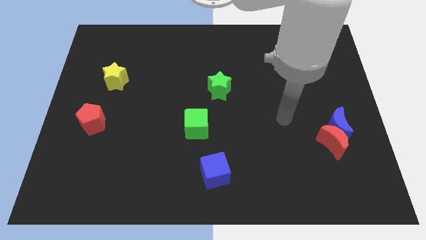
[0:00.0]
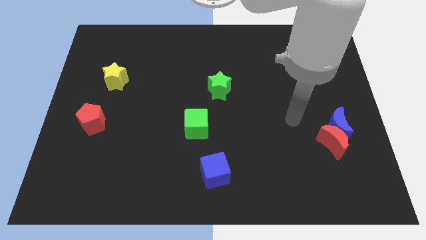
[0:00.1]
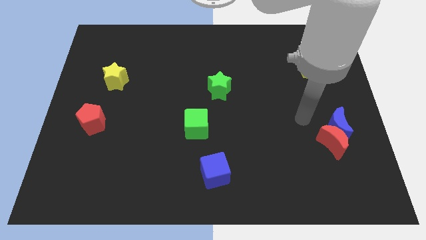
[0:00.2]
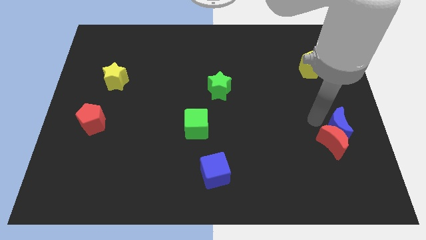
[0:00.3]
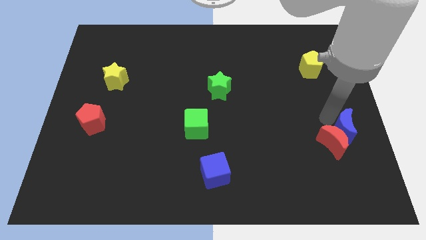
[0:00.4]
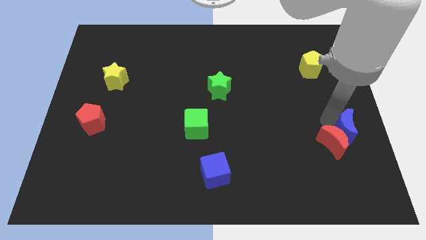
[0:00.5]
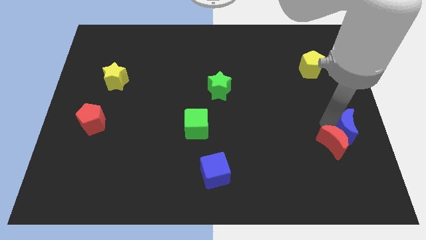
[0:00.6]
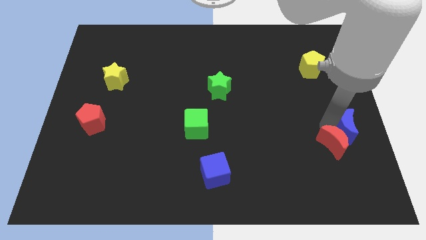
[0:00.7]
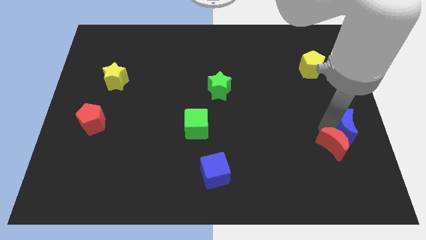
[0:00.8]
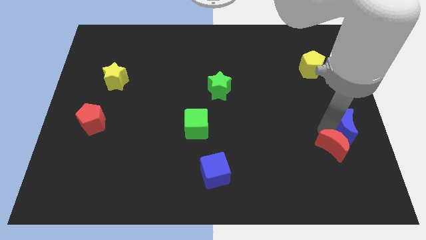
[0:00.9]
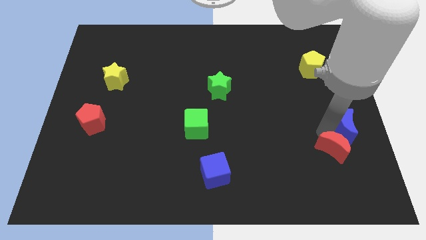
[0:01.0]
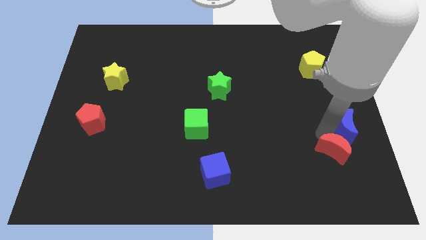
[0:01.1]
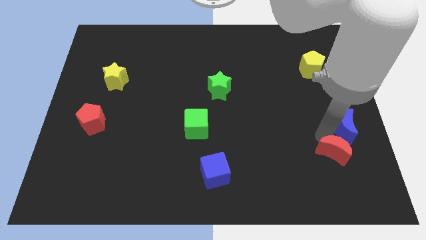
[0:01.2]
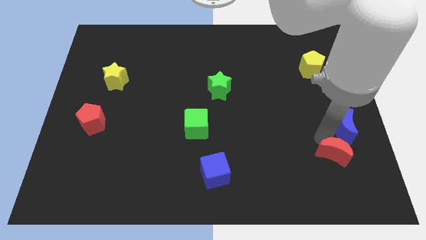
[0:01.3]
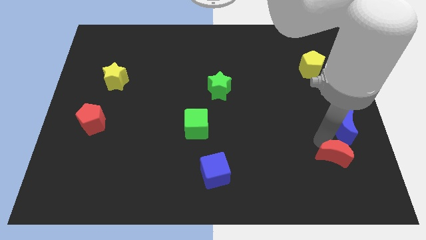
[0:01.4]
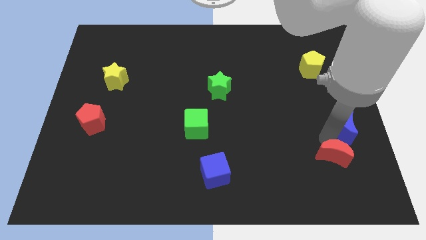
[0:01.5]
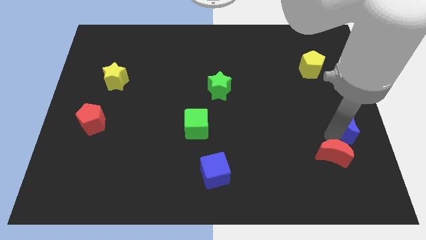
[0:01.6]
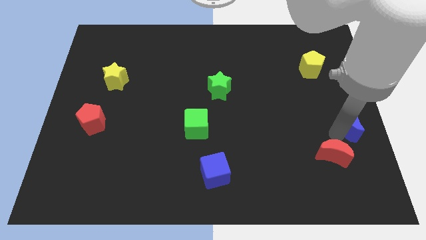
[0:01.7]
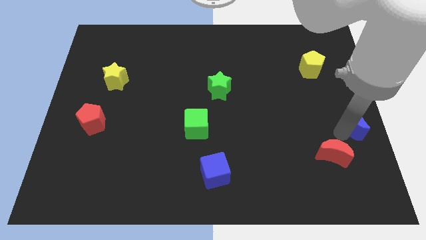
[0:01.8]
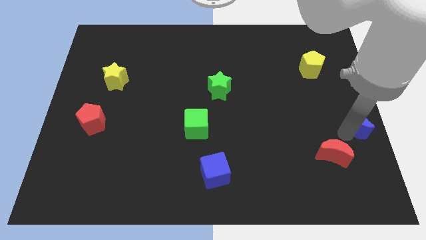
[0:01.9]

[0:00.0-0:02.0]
pull the red moon apart from the blue moon

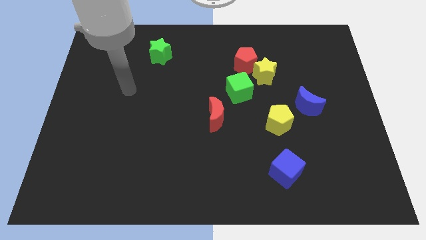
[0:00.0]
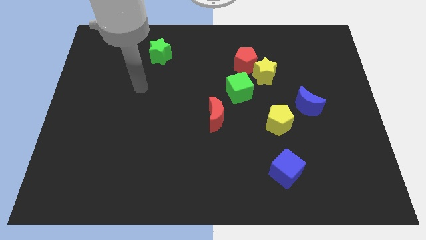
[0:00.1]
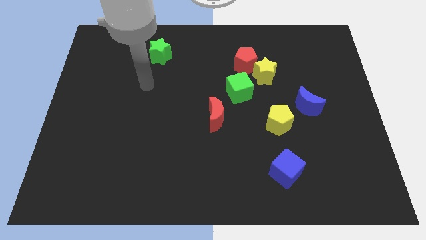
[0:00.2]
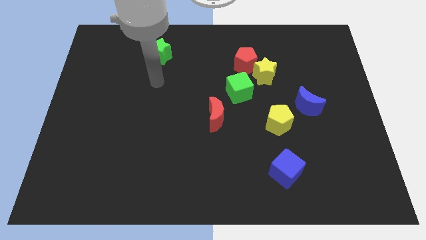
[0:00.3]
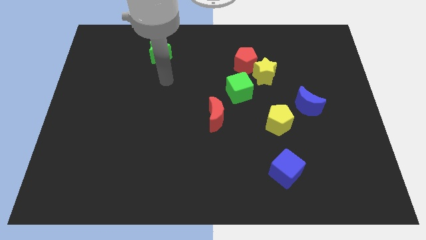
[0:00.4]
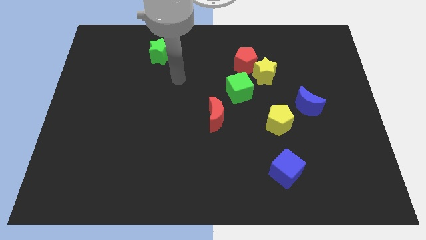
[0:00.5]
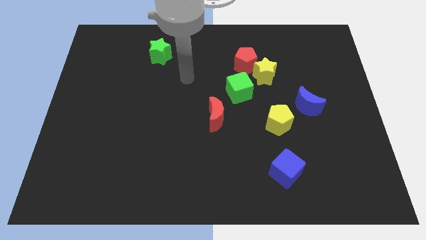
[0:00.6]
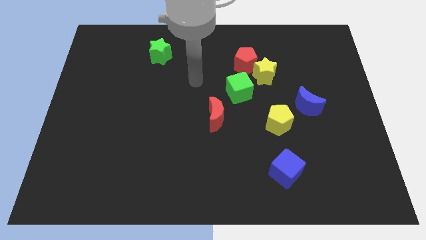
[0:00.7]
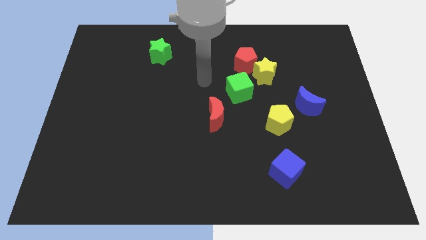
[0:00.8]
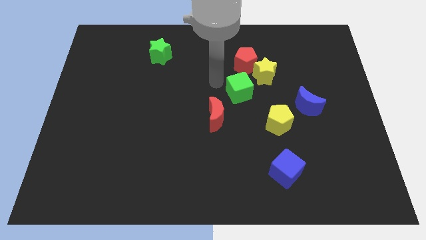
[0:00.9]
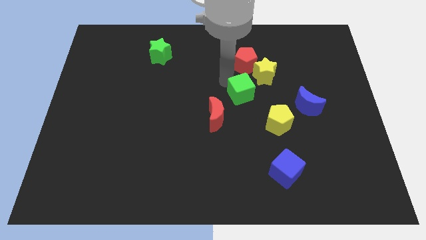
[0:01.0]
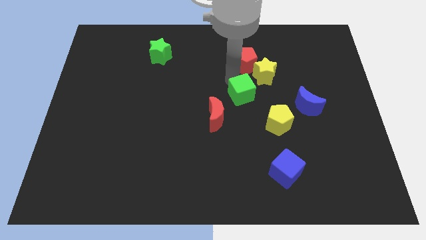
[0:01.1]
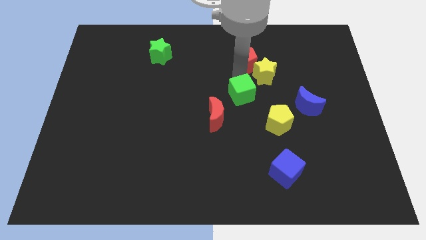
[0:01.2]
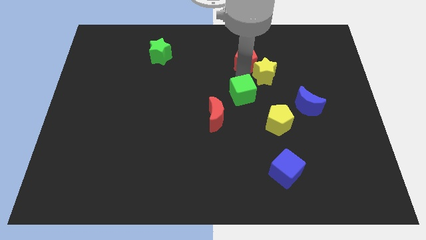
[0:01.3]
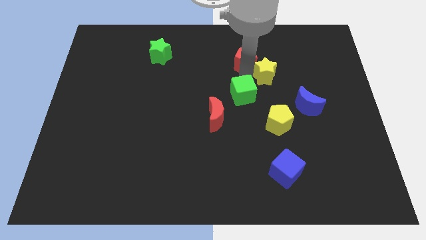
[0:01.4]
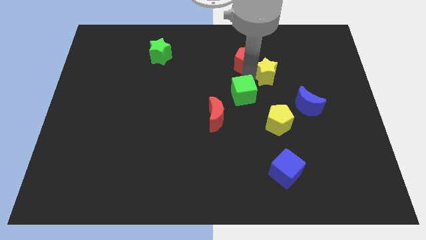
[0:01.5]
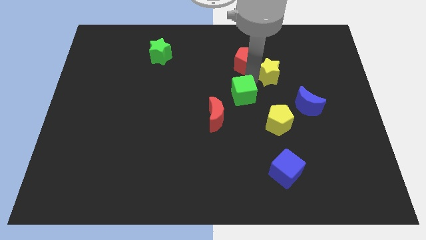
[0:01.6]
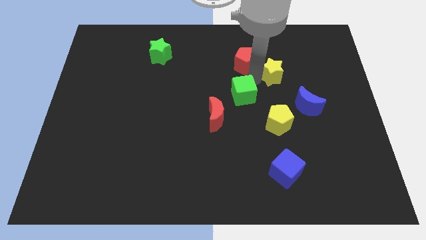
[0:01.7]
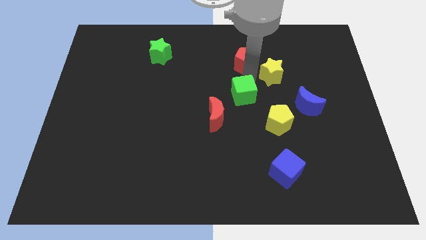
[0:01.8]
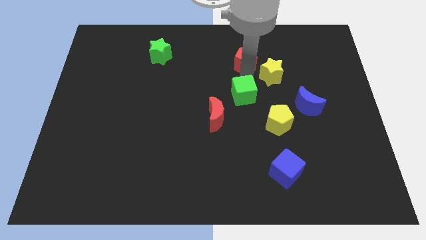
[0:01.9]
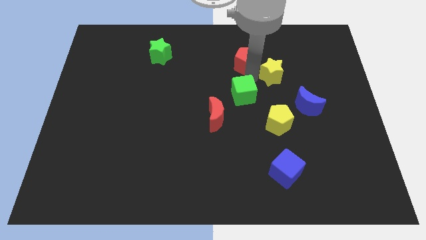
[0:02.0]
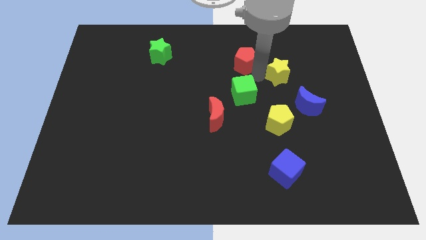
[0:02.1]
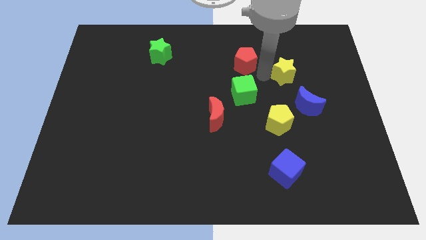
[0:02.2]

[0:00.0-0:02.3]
separate the yellow star from the red pentagon and green cube

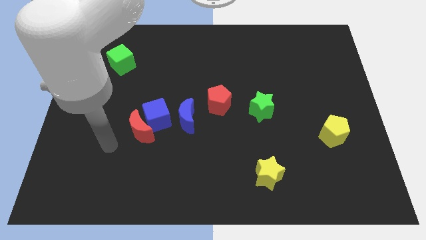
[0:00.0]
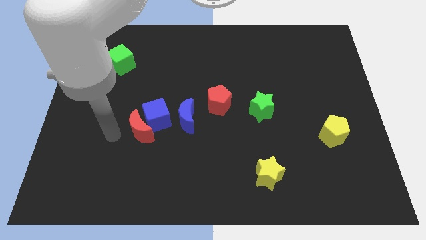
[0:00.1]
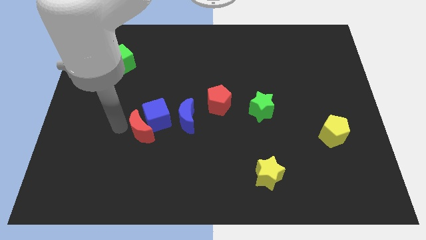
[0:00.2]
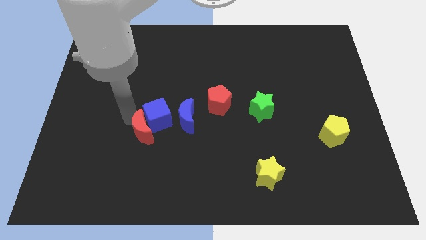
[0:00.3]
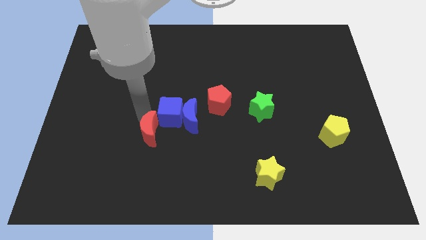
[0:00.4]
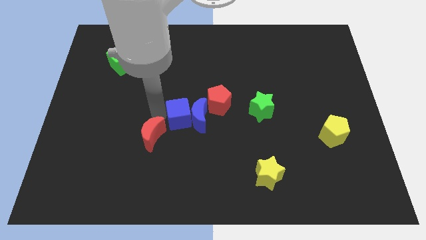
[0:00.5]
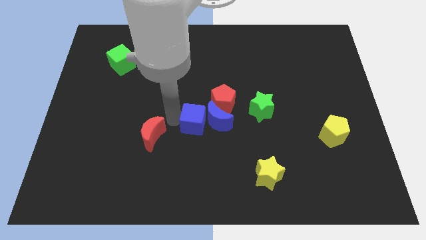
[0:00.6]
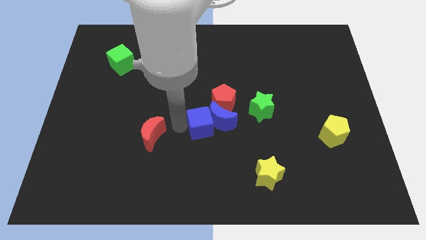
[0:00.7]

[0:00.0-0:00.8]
separate the red moon from the blue cube

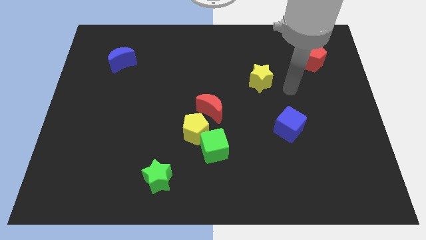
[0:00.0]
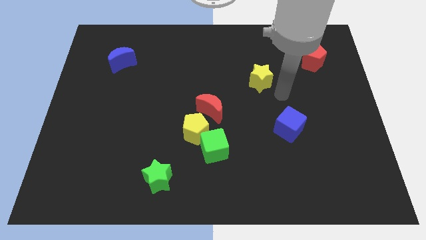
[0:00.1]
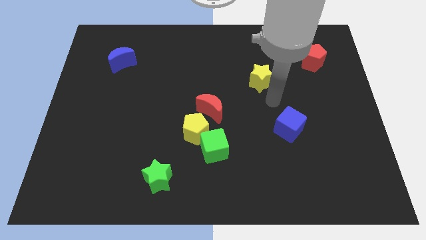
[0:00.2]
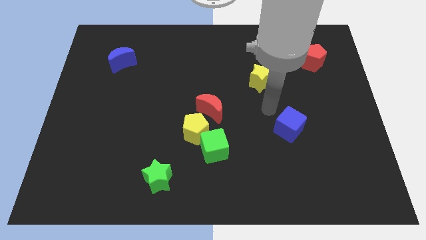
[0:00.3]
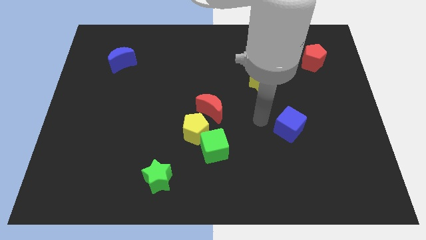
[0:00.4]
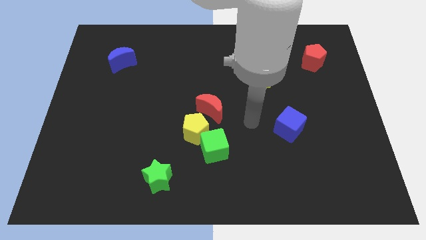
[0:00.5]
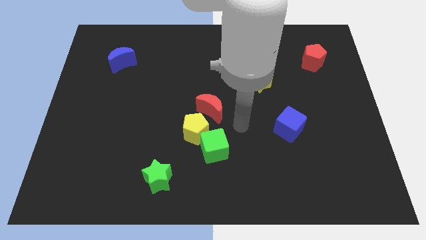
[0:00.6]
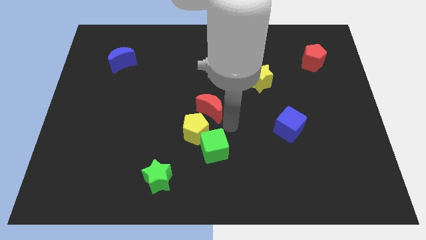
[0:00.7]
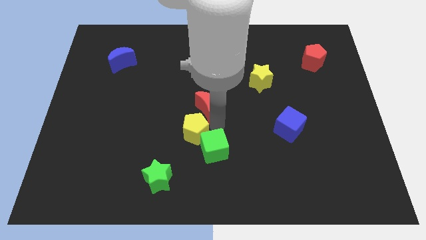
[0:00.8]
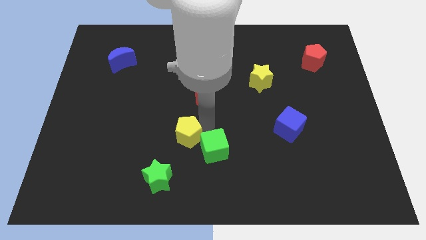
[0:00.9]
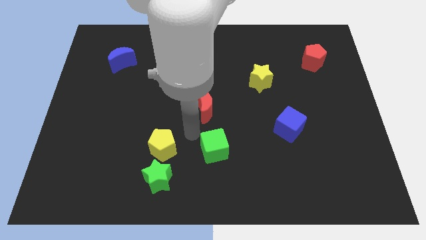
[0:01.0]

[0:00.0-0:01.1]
separate the green cube from the yellow pentagon

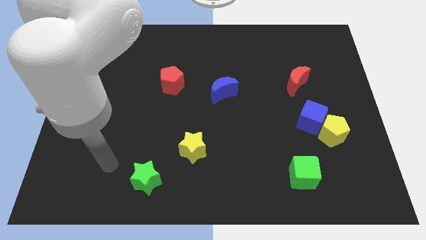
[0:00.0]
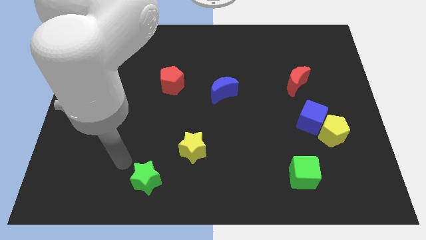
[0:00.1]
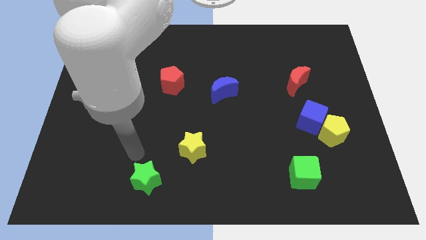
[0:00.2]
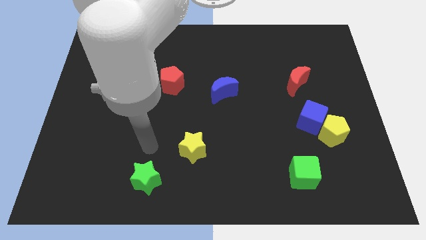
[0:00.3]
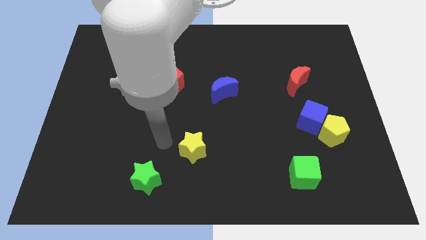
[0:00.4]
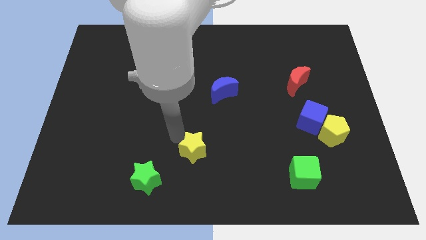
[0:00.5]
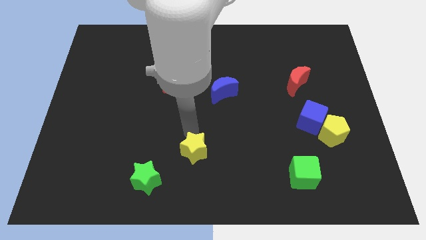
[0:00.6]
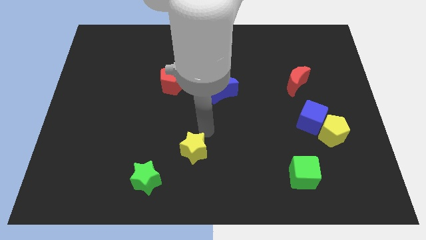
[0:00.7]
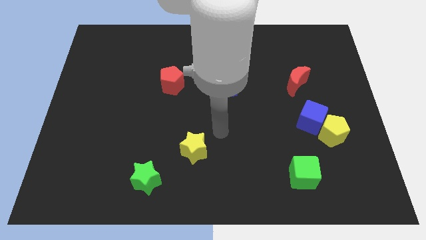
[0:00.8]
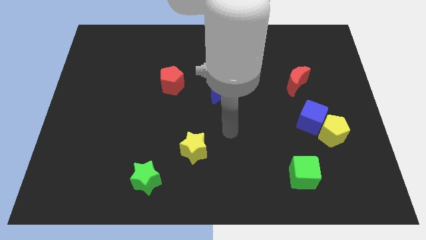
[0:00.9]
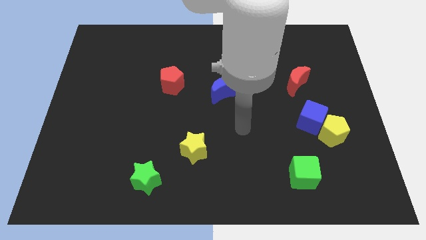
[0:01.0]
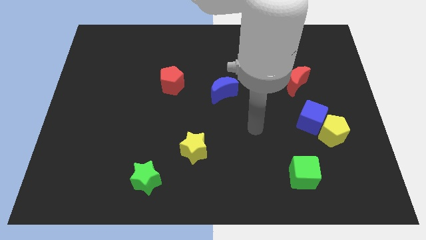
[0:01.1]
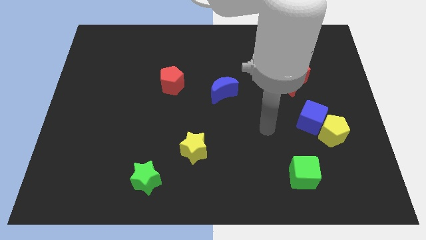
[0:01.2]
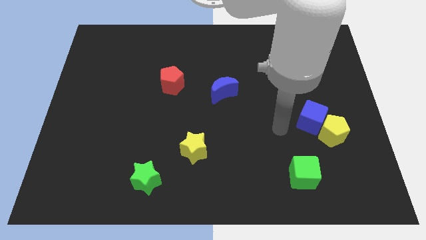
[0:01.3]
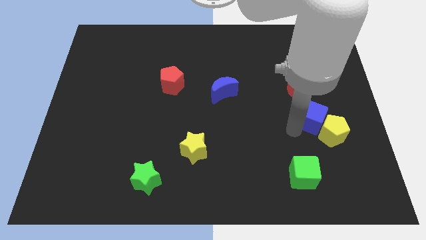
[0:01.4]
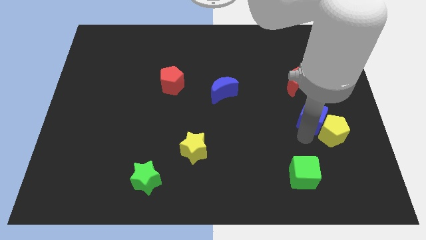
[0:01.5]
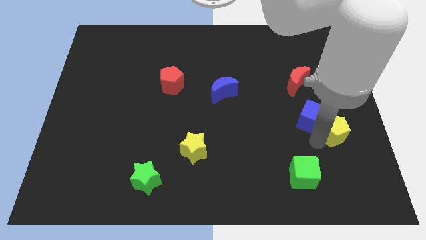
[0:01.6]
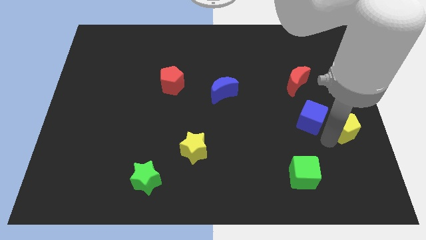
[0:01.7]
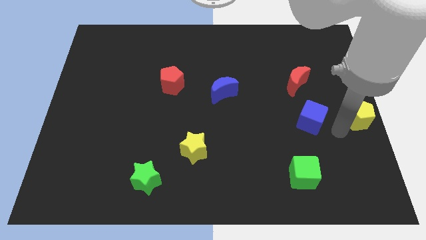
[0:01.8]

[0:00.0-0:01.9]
pull the blue cube apart from the yellow pentagon

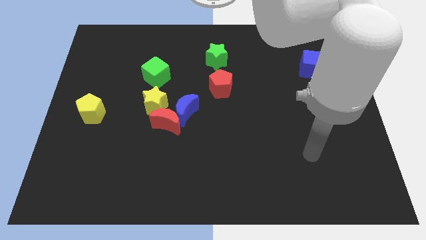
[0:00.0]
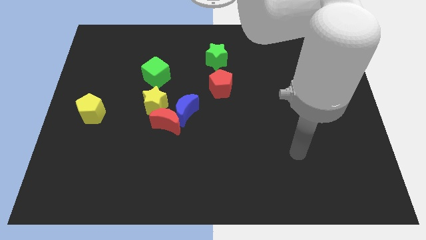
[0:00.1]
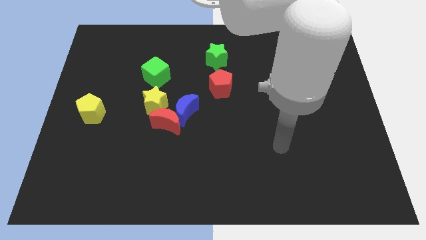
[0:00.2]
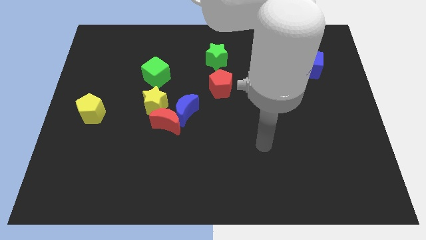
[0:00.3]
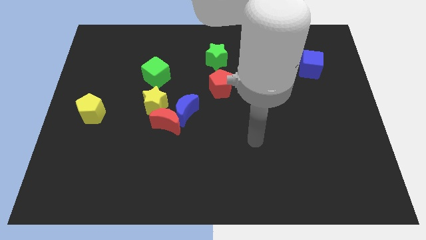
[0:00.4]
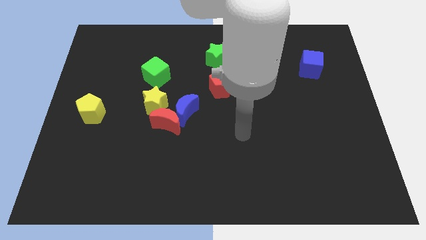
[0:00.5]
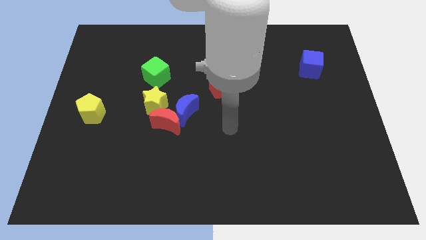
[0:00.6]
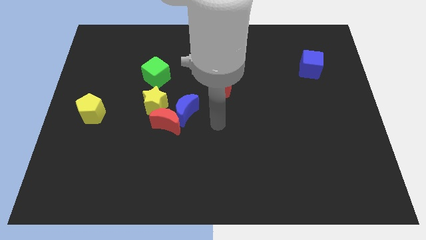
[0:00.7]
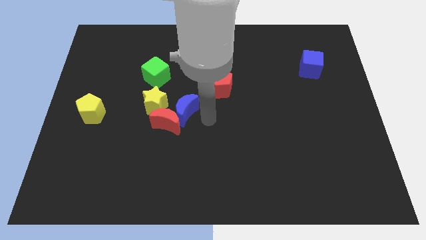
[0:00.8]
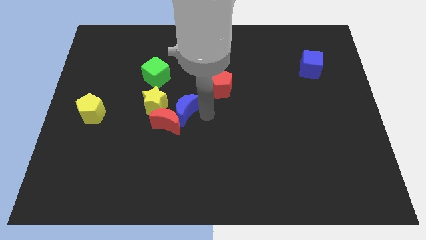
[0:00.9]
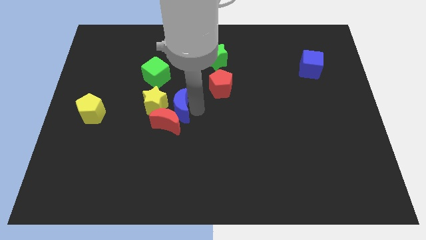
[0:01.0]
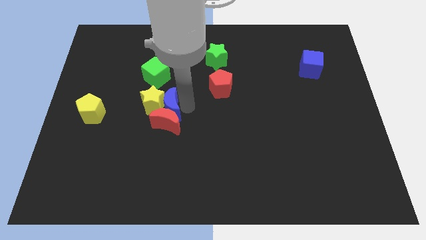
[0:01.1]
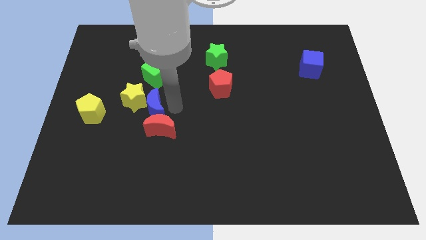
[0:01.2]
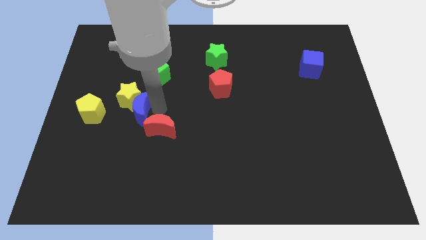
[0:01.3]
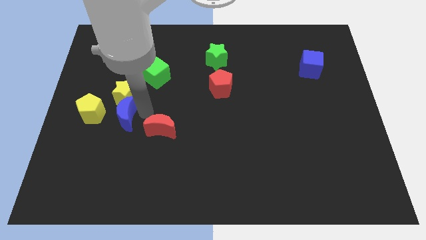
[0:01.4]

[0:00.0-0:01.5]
move the red moon away from the blue moon and yellow star
